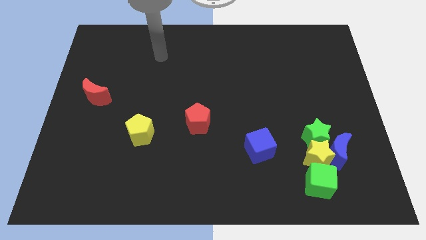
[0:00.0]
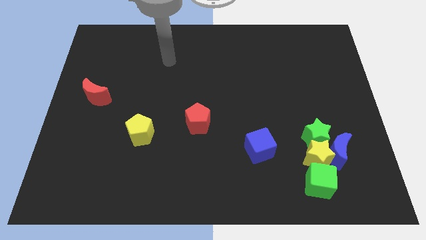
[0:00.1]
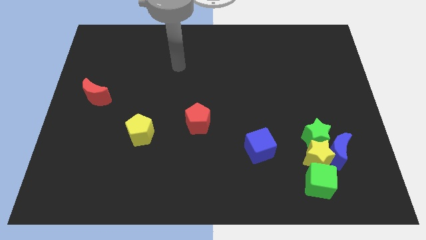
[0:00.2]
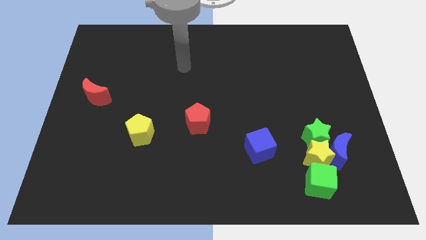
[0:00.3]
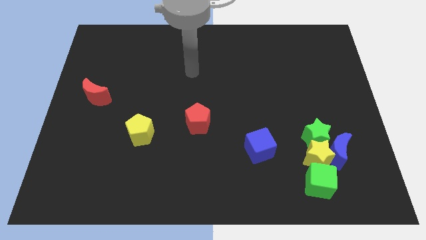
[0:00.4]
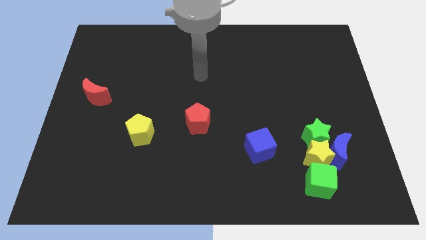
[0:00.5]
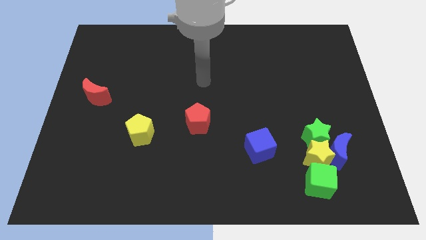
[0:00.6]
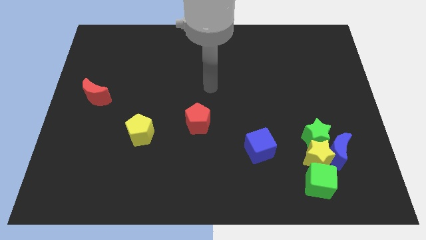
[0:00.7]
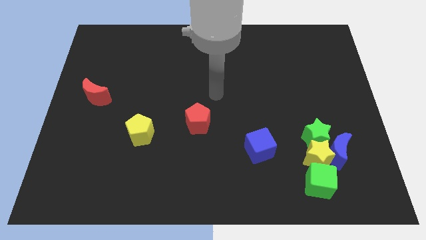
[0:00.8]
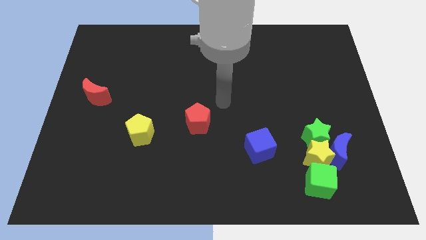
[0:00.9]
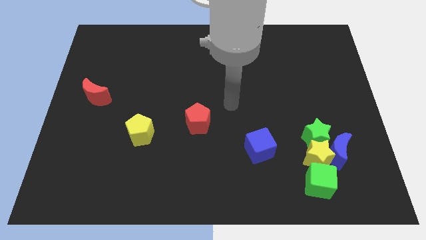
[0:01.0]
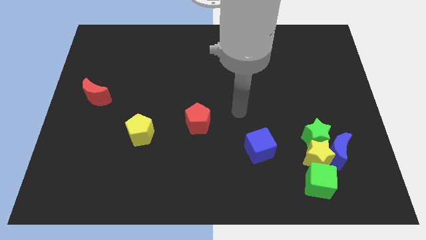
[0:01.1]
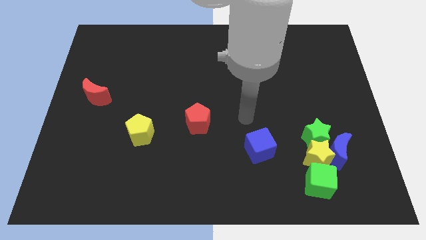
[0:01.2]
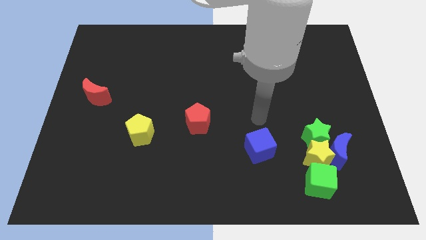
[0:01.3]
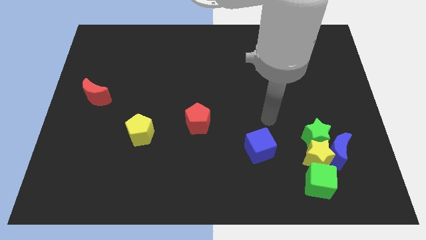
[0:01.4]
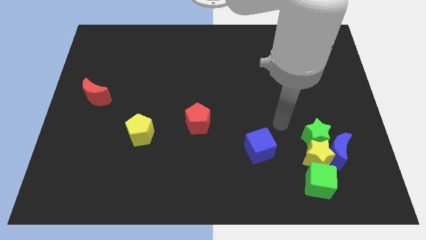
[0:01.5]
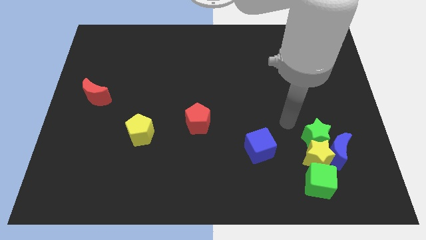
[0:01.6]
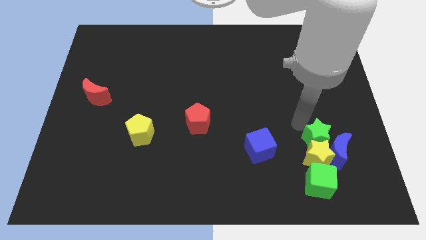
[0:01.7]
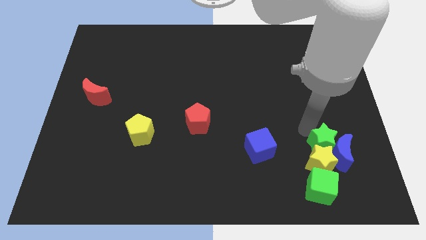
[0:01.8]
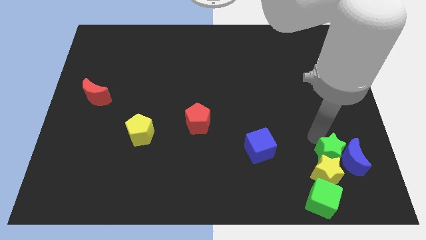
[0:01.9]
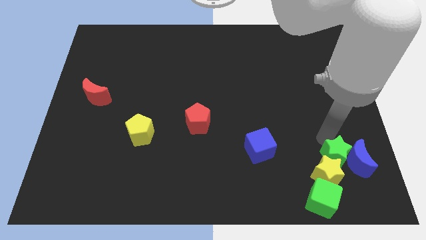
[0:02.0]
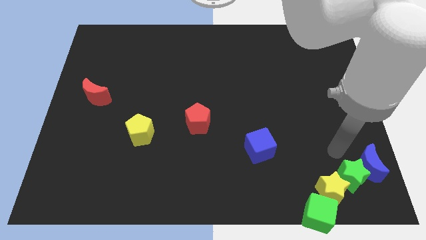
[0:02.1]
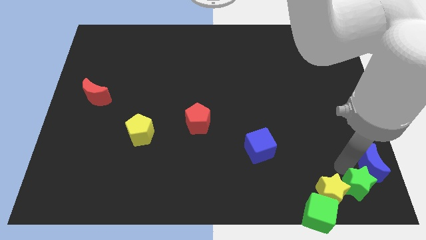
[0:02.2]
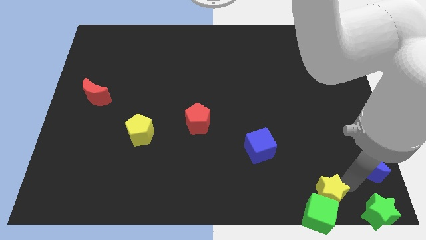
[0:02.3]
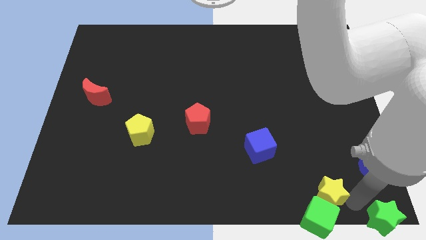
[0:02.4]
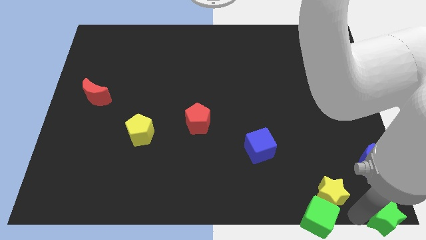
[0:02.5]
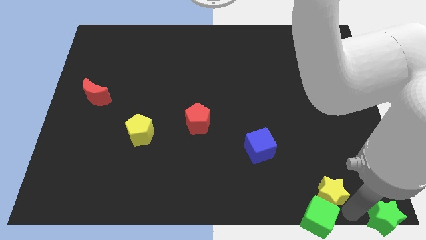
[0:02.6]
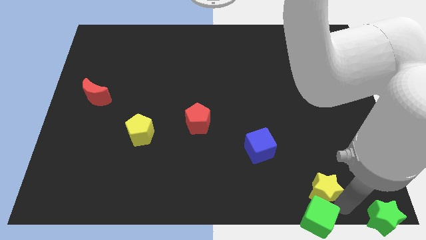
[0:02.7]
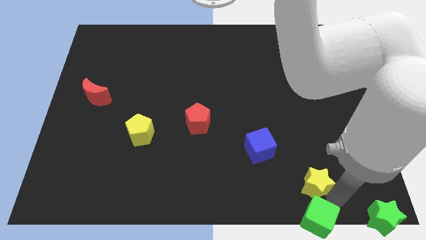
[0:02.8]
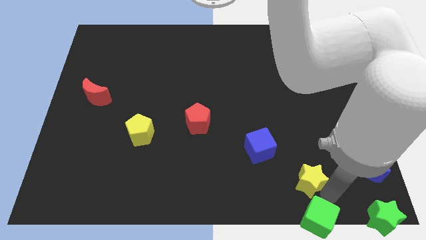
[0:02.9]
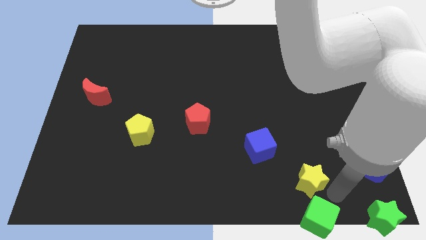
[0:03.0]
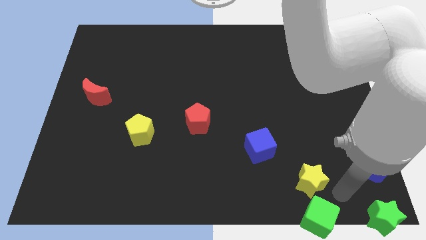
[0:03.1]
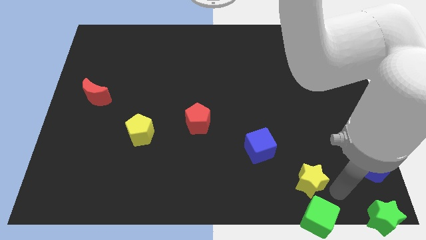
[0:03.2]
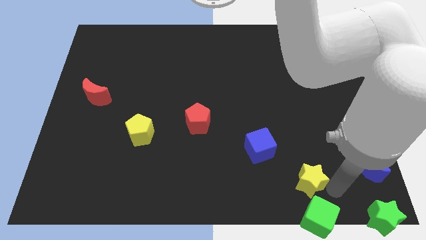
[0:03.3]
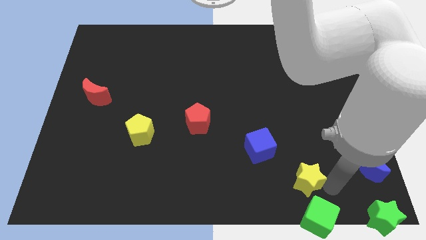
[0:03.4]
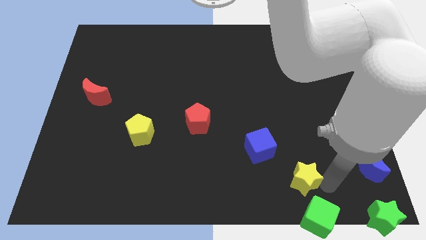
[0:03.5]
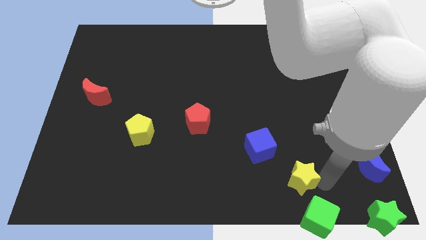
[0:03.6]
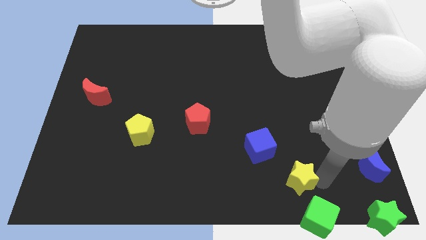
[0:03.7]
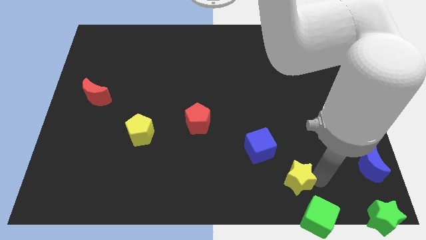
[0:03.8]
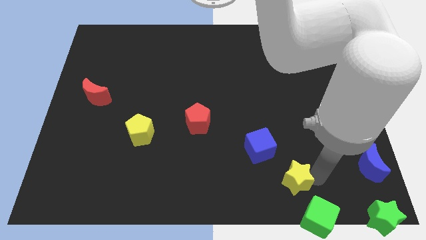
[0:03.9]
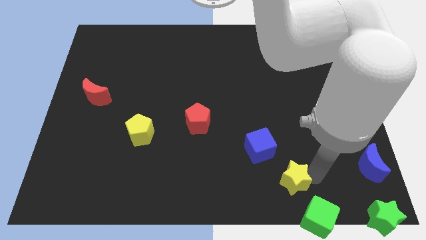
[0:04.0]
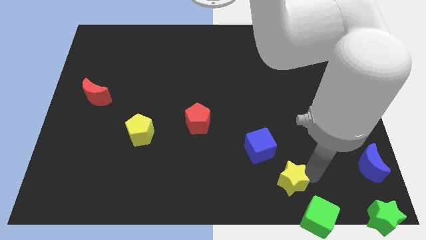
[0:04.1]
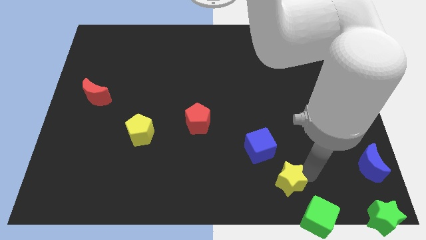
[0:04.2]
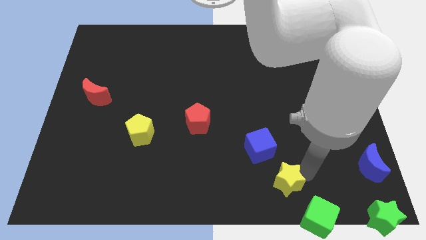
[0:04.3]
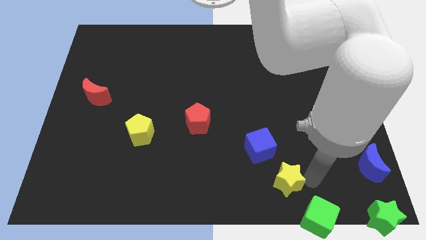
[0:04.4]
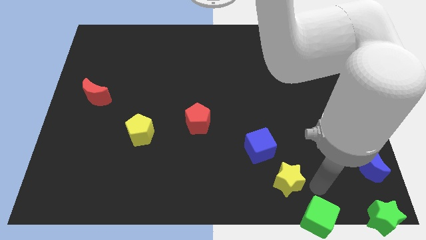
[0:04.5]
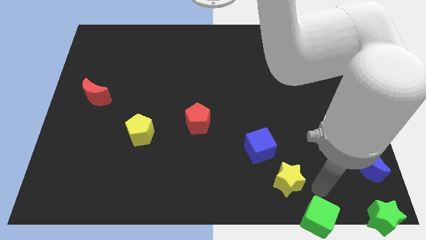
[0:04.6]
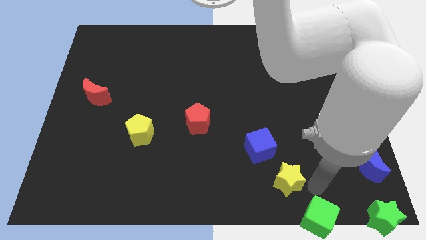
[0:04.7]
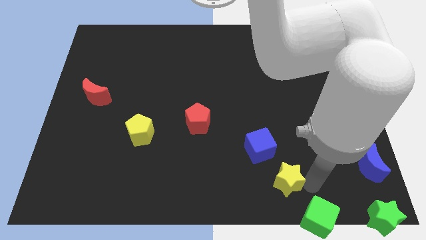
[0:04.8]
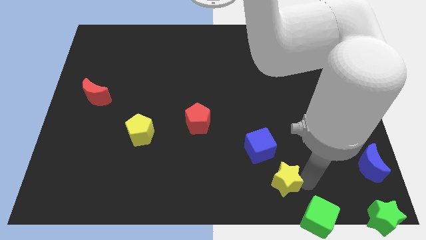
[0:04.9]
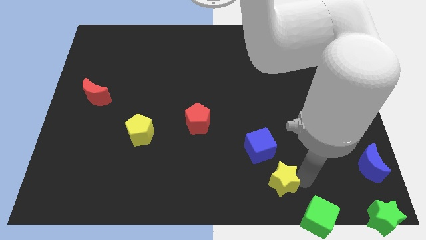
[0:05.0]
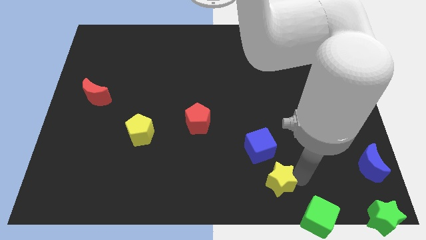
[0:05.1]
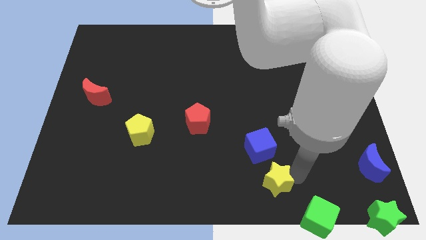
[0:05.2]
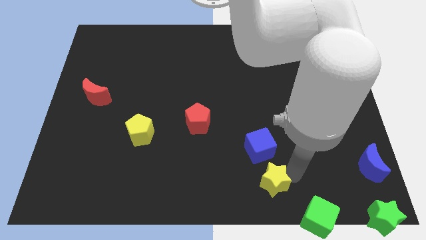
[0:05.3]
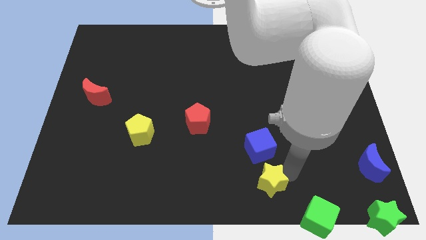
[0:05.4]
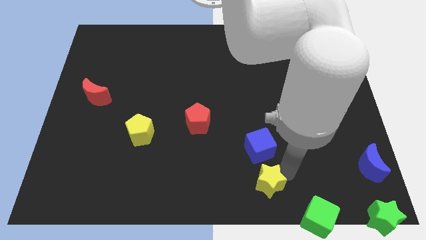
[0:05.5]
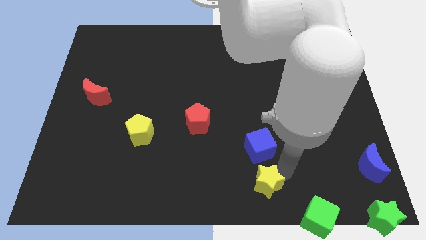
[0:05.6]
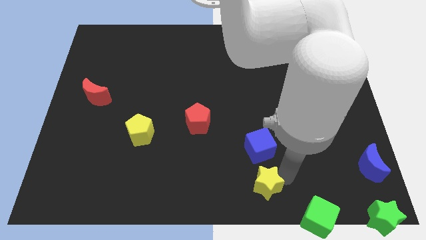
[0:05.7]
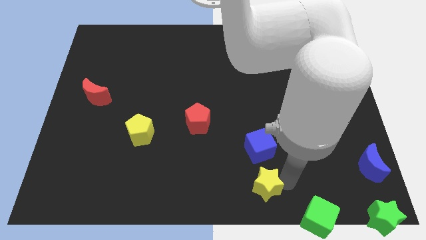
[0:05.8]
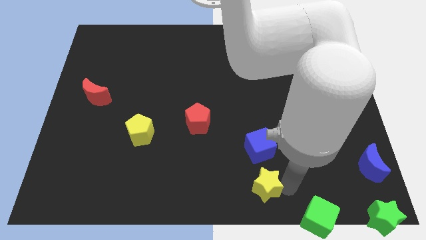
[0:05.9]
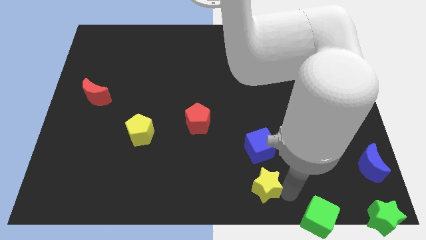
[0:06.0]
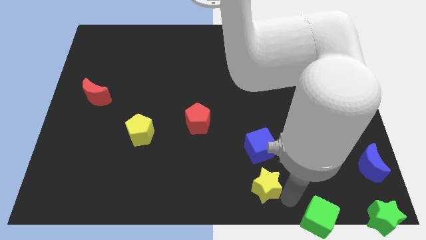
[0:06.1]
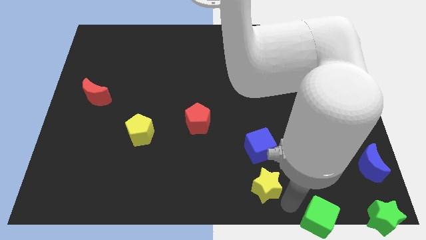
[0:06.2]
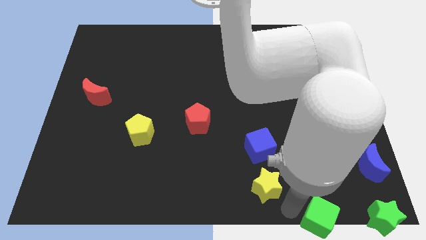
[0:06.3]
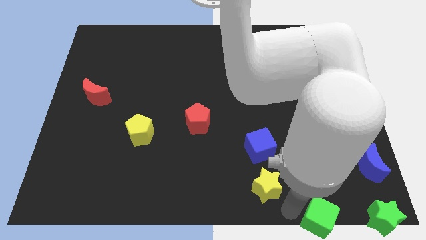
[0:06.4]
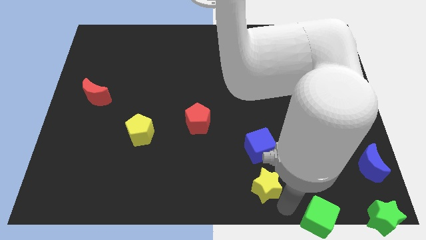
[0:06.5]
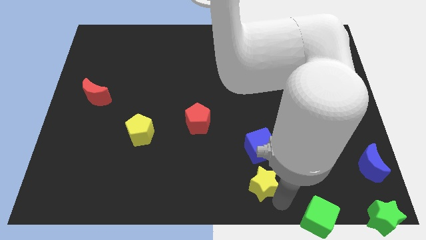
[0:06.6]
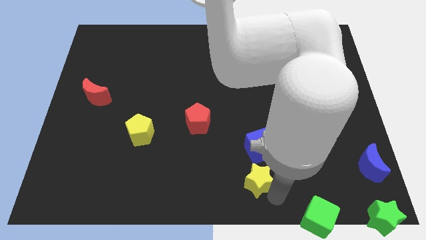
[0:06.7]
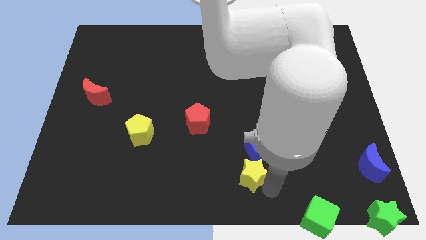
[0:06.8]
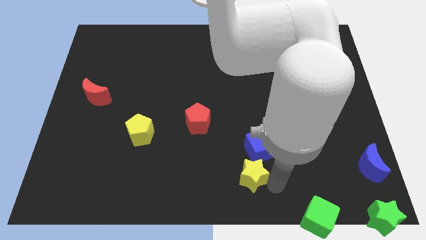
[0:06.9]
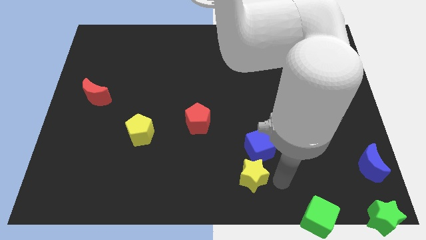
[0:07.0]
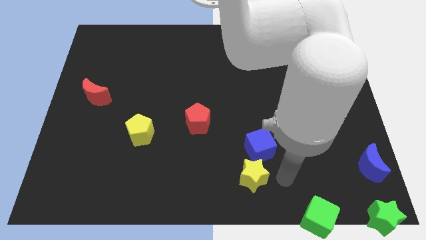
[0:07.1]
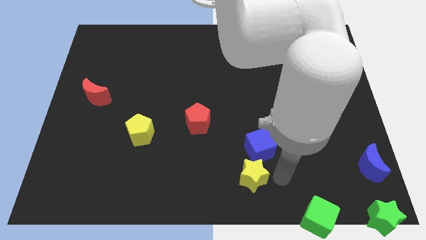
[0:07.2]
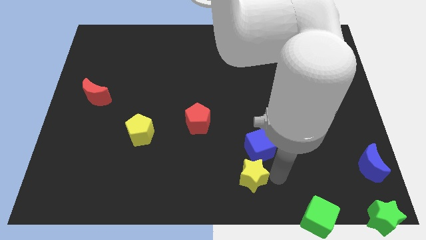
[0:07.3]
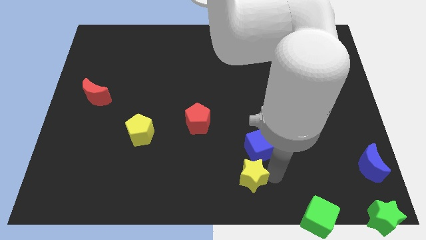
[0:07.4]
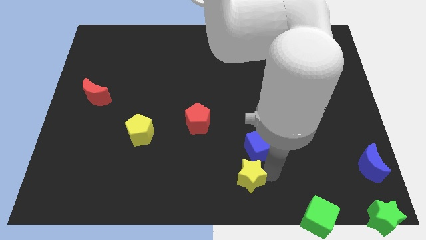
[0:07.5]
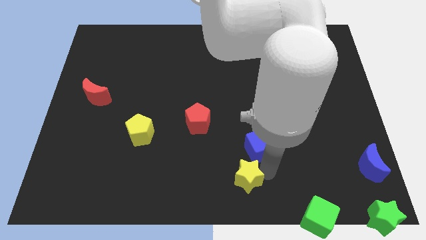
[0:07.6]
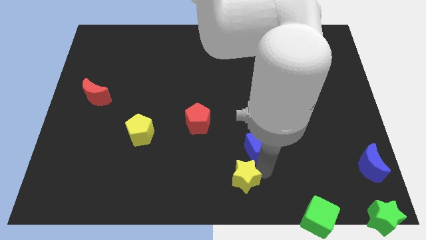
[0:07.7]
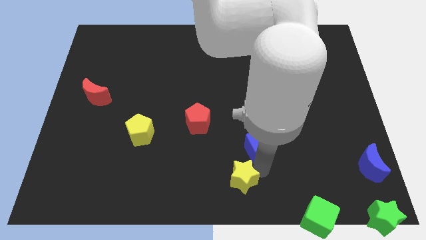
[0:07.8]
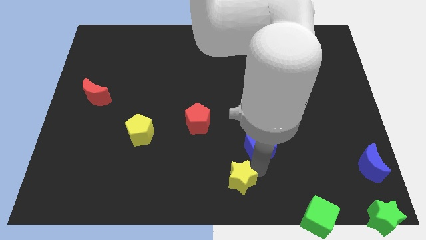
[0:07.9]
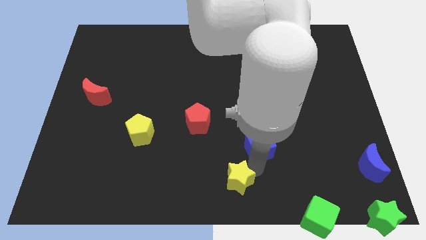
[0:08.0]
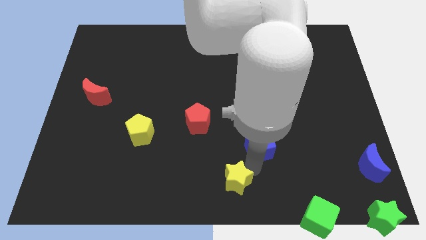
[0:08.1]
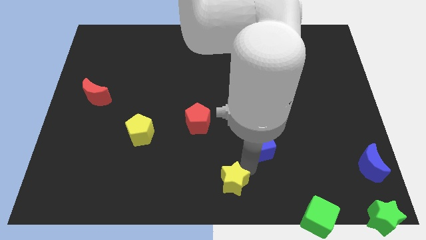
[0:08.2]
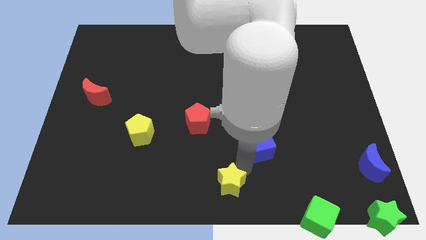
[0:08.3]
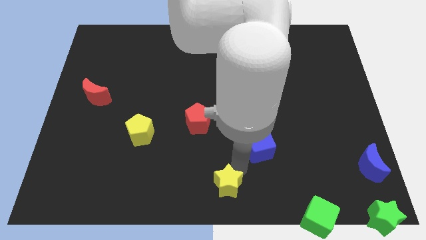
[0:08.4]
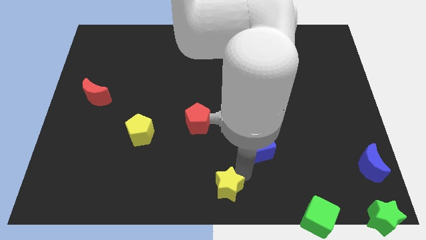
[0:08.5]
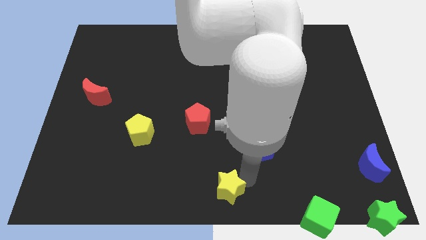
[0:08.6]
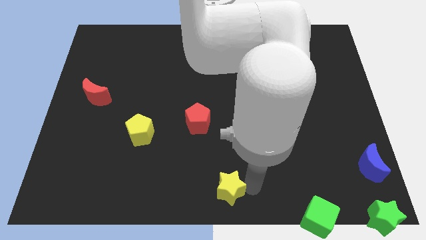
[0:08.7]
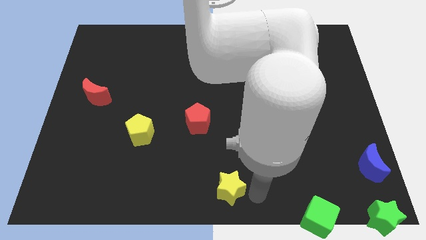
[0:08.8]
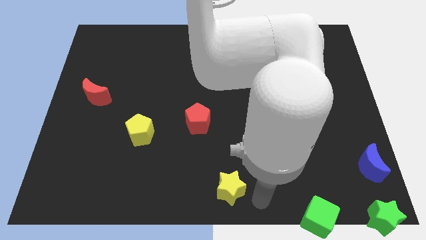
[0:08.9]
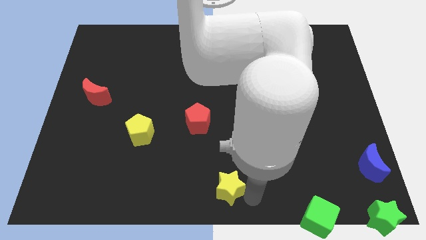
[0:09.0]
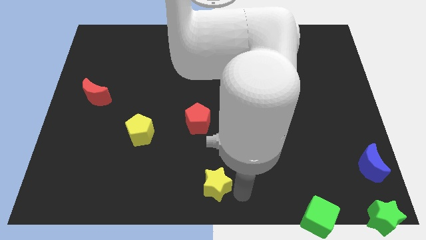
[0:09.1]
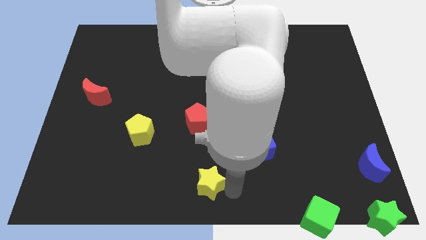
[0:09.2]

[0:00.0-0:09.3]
push the yellow star to the left
